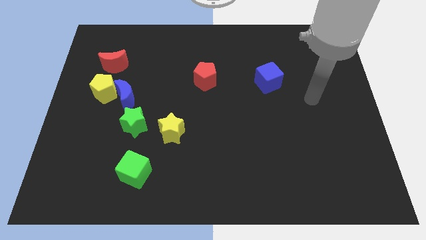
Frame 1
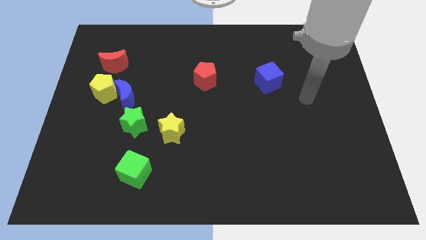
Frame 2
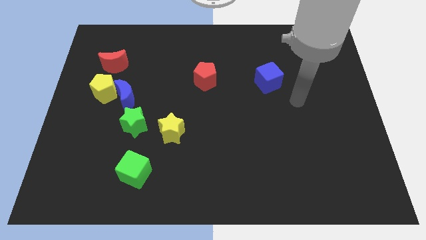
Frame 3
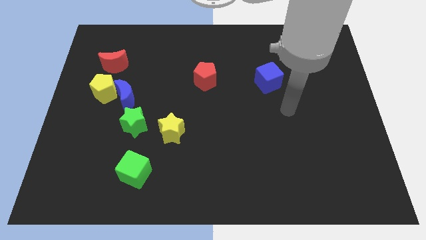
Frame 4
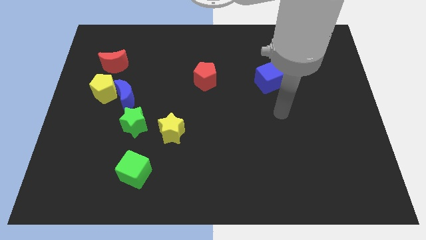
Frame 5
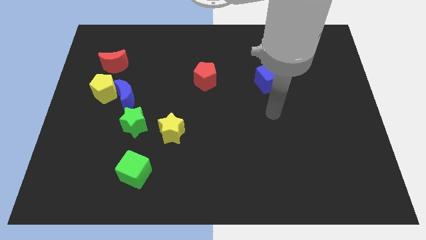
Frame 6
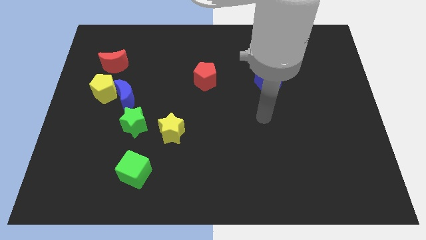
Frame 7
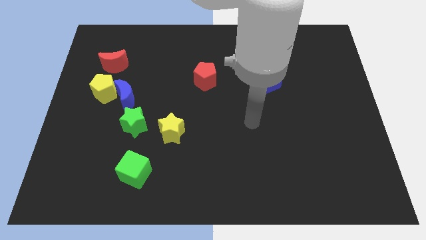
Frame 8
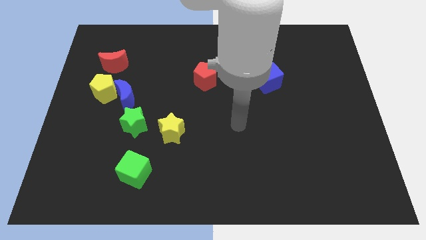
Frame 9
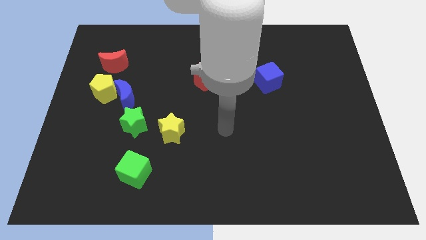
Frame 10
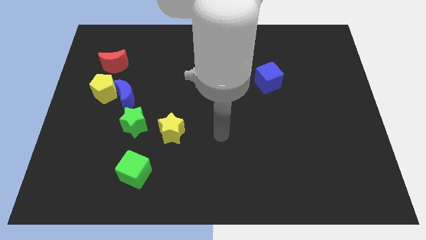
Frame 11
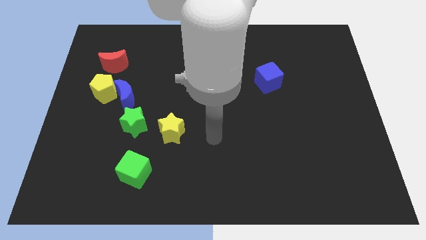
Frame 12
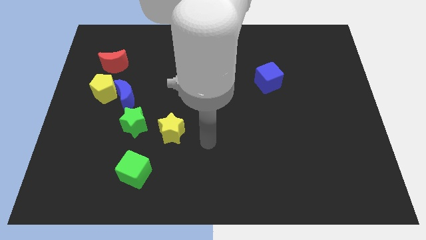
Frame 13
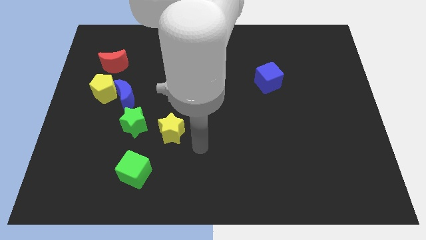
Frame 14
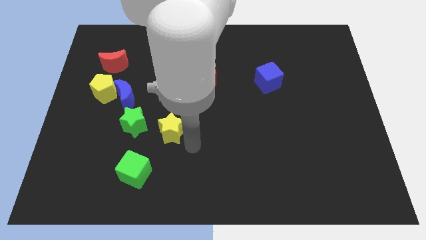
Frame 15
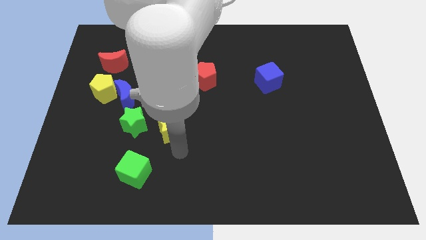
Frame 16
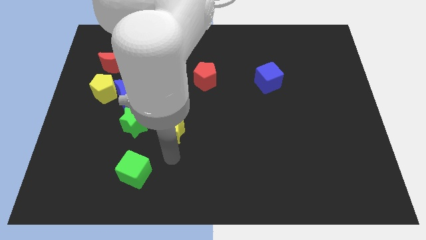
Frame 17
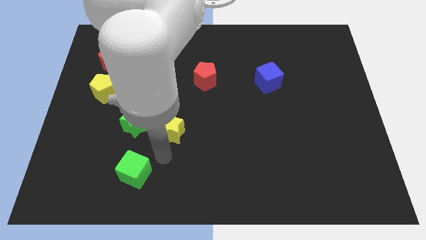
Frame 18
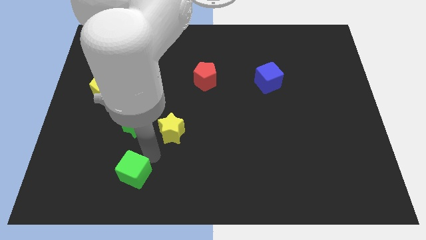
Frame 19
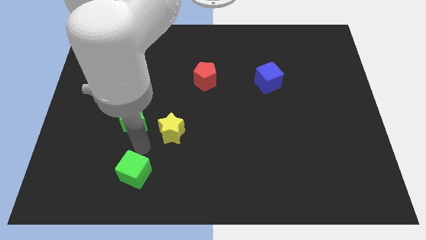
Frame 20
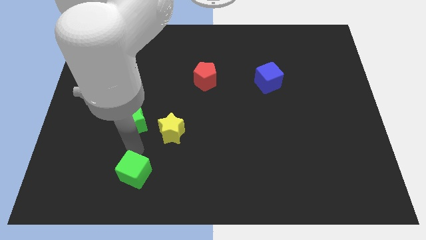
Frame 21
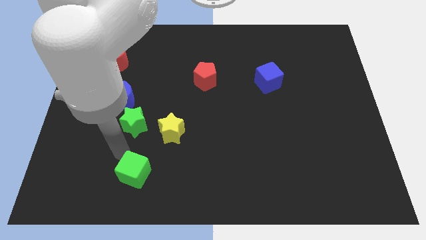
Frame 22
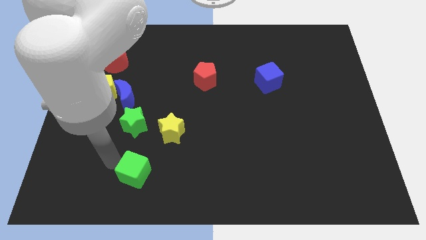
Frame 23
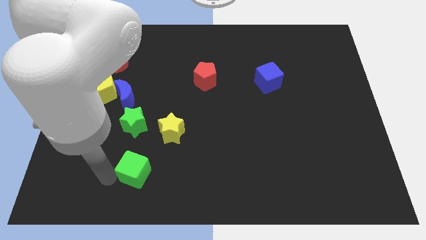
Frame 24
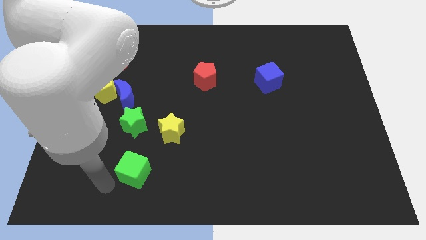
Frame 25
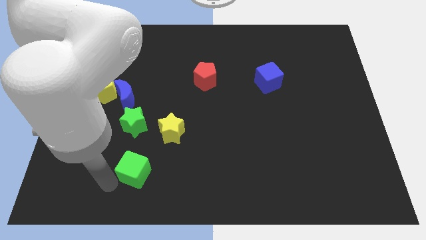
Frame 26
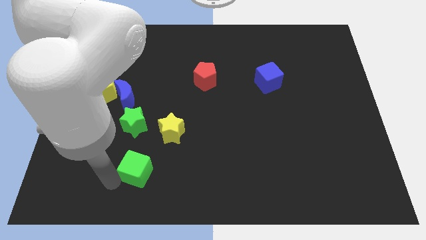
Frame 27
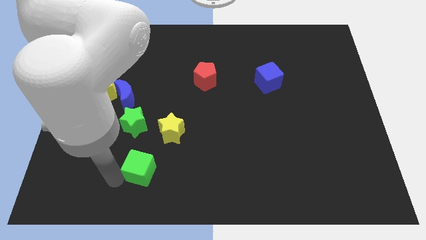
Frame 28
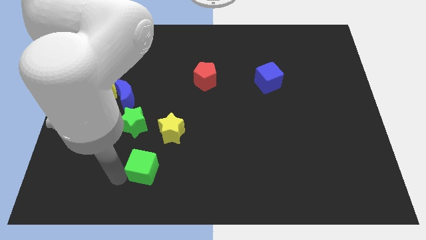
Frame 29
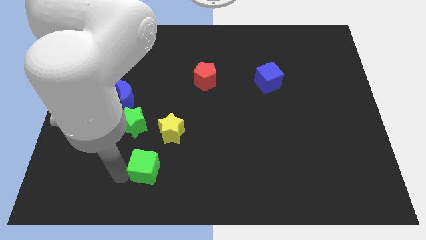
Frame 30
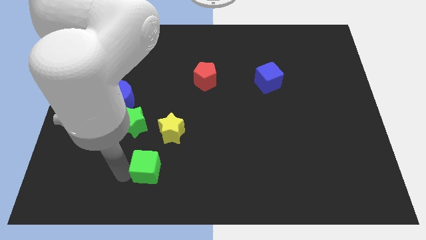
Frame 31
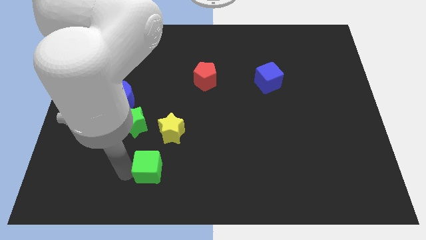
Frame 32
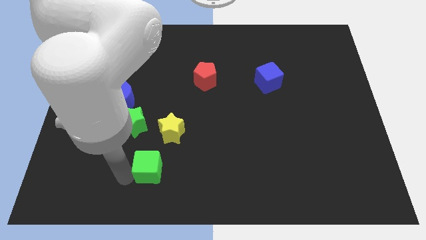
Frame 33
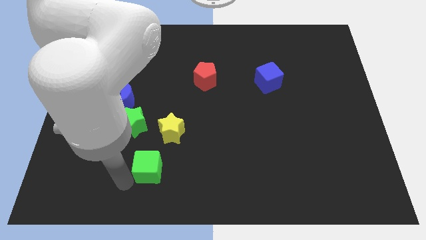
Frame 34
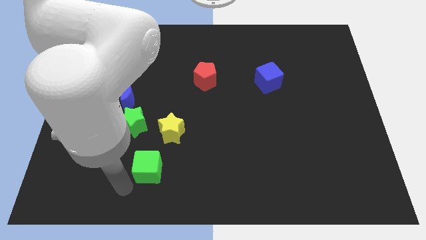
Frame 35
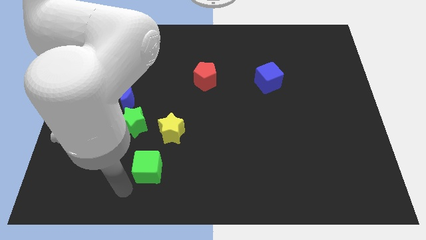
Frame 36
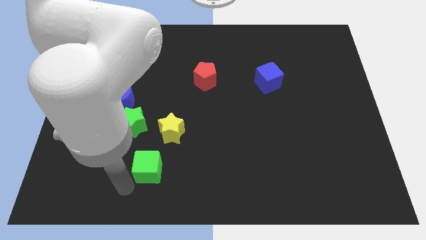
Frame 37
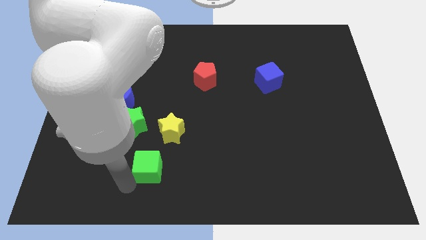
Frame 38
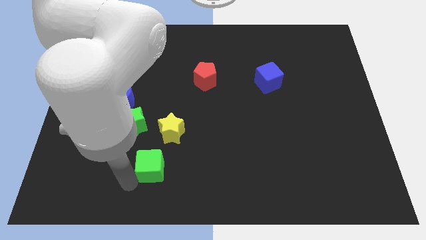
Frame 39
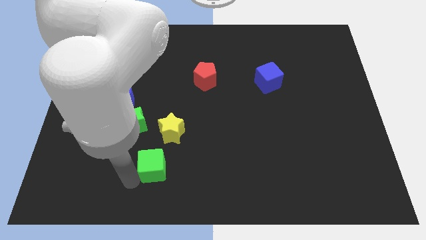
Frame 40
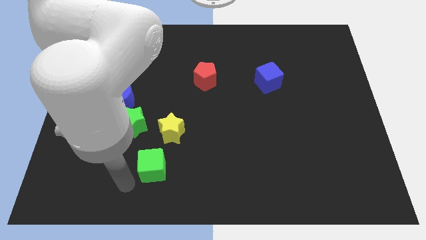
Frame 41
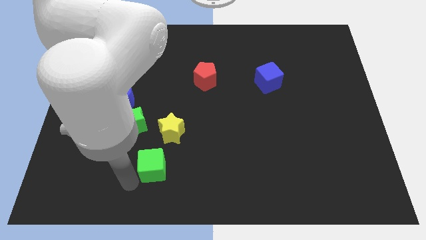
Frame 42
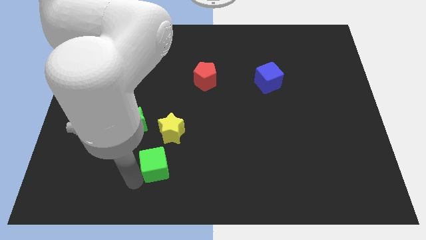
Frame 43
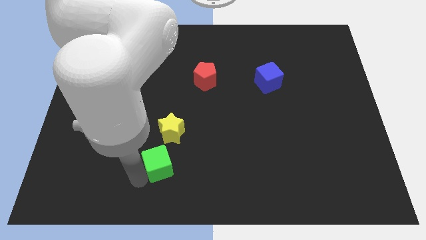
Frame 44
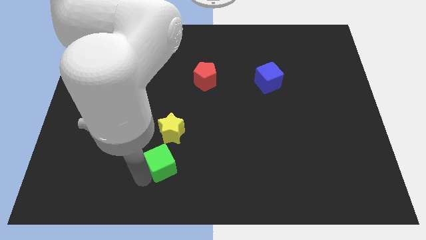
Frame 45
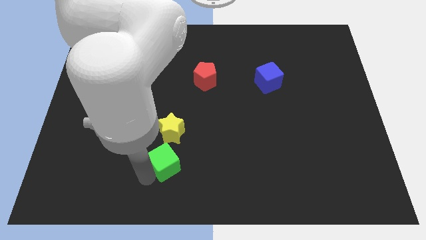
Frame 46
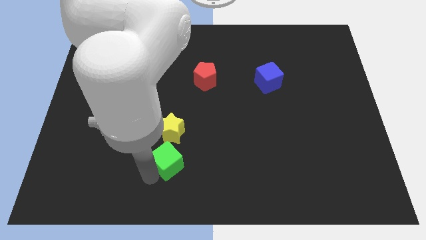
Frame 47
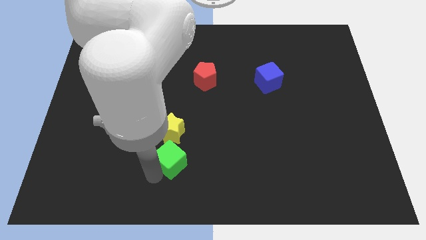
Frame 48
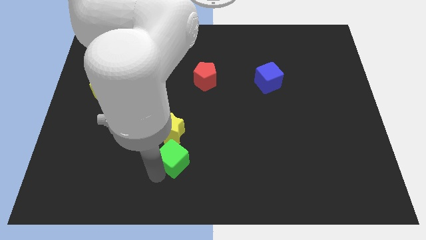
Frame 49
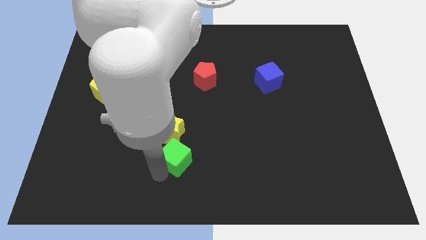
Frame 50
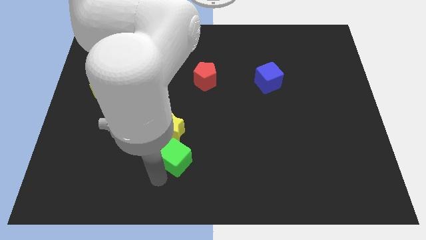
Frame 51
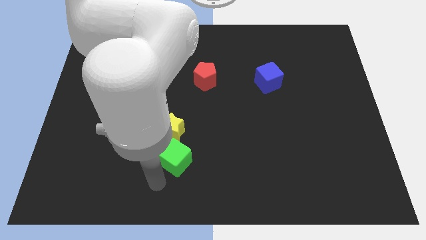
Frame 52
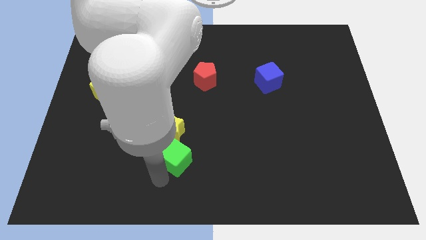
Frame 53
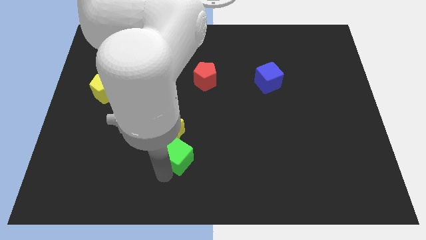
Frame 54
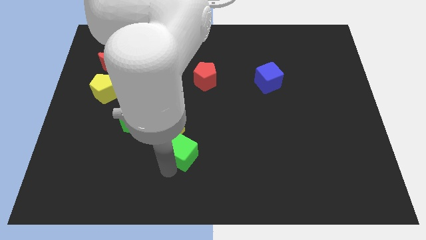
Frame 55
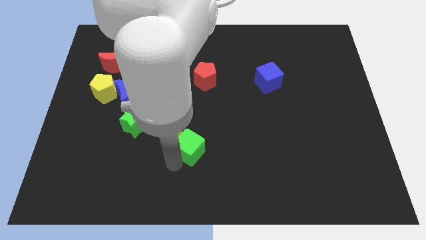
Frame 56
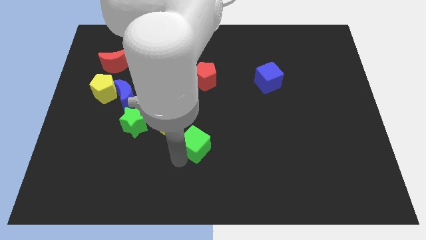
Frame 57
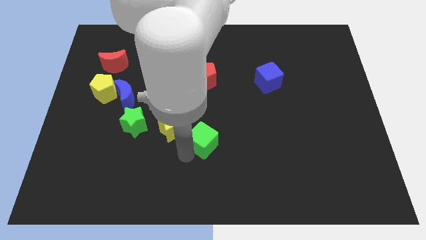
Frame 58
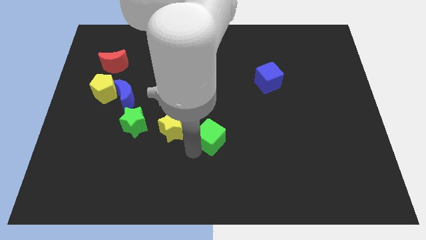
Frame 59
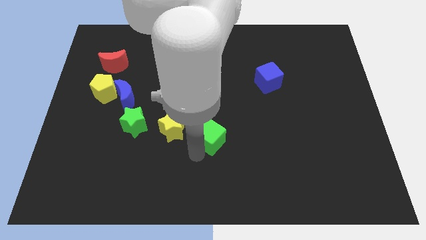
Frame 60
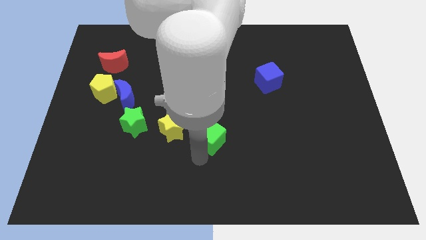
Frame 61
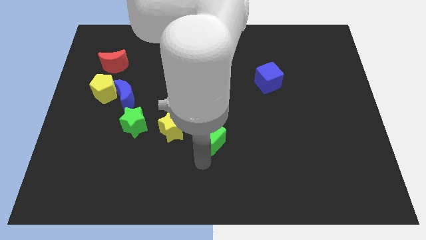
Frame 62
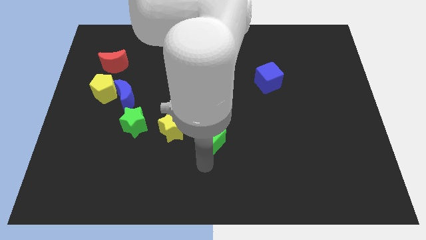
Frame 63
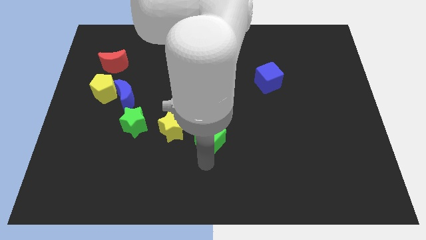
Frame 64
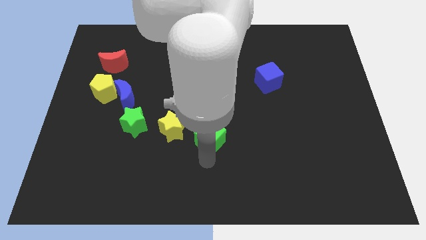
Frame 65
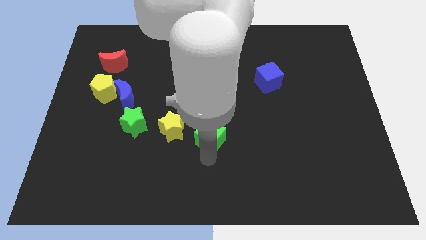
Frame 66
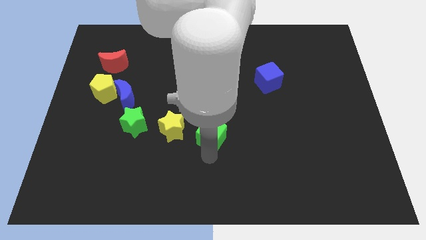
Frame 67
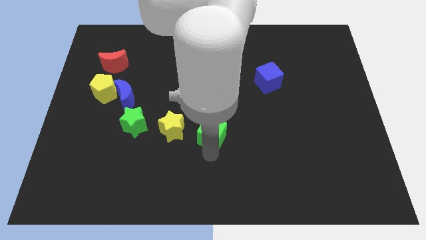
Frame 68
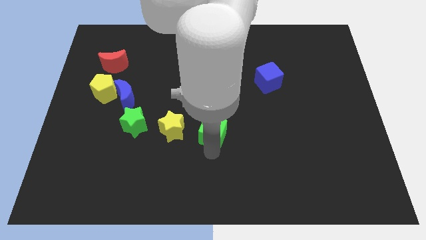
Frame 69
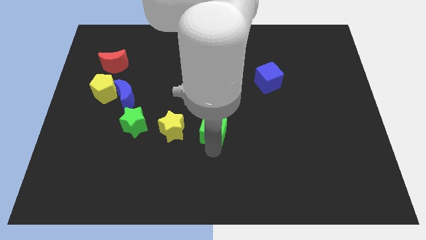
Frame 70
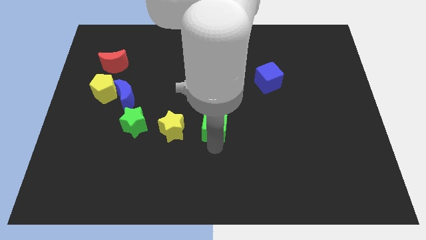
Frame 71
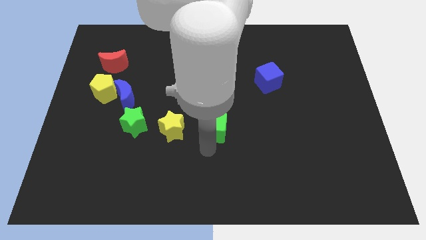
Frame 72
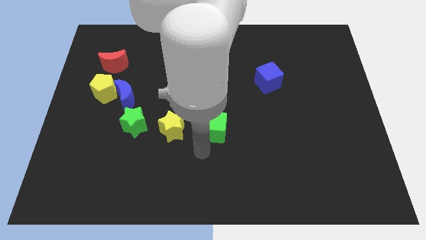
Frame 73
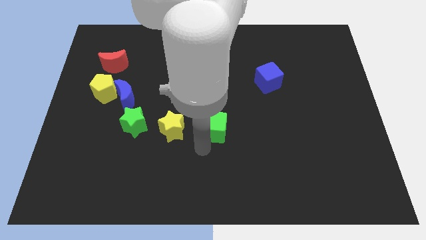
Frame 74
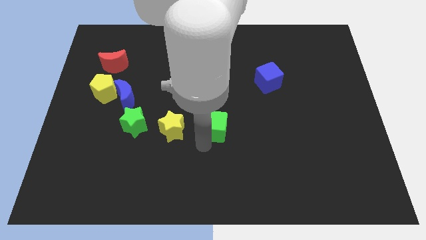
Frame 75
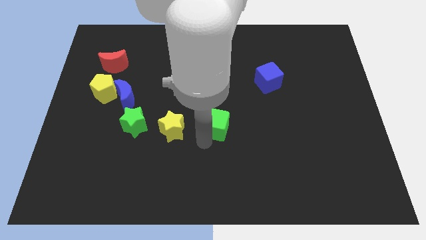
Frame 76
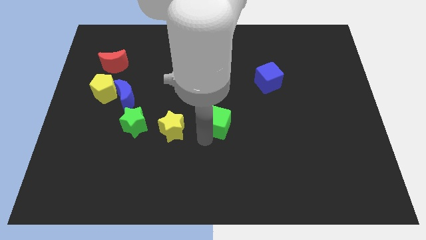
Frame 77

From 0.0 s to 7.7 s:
move the green cube diagonally upwards and right

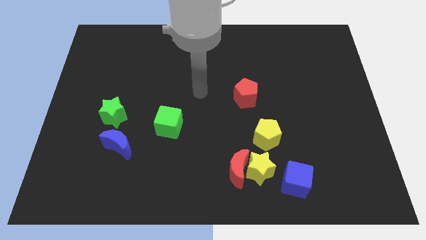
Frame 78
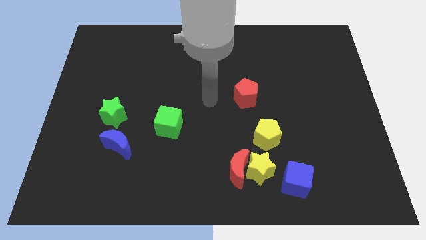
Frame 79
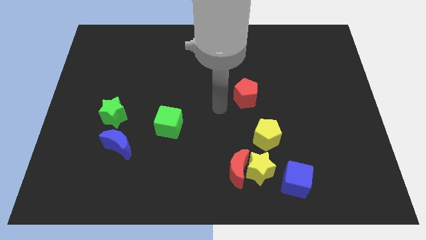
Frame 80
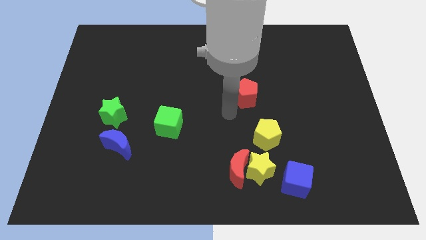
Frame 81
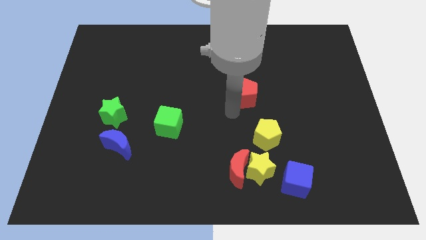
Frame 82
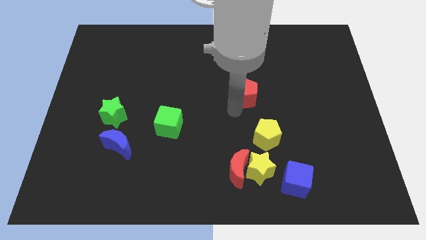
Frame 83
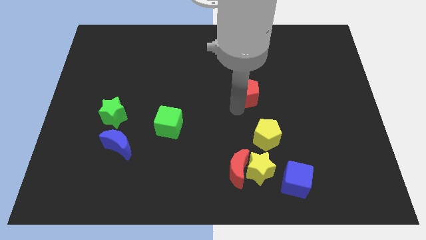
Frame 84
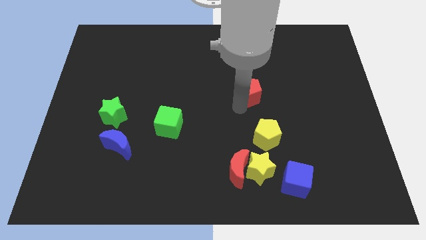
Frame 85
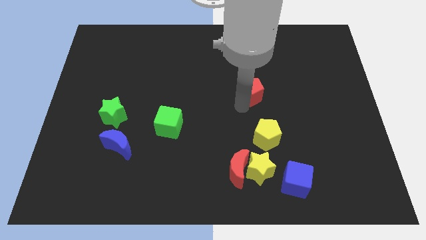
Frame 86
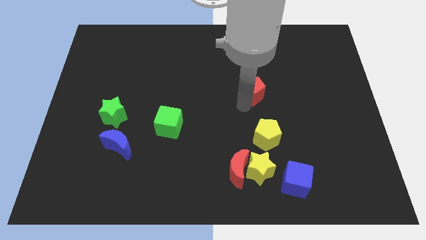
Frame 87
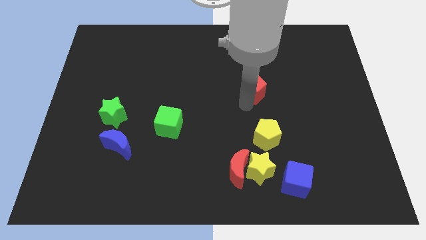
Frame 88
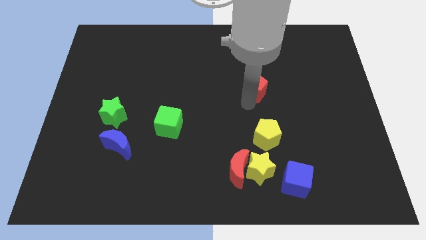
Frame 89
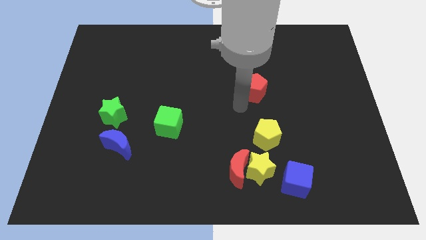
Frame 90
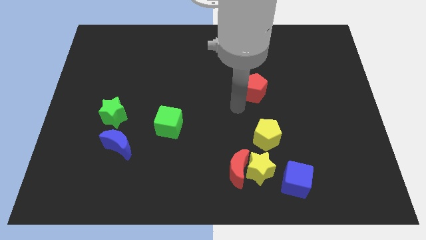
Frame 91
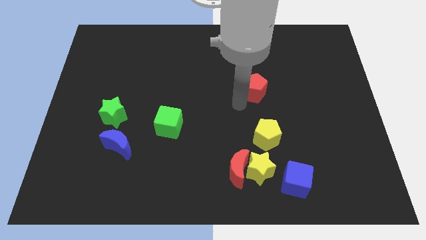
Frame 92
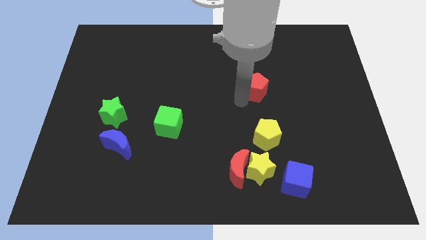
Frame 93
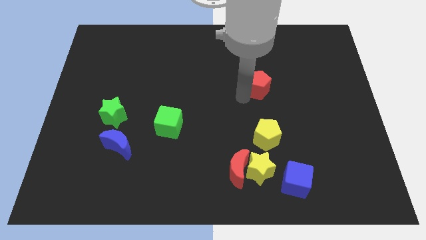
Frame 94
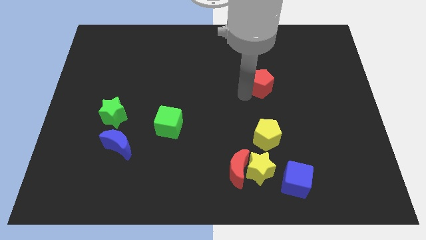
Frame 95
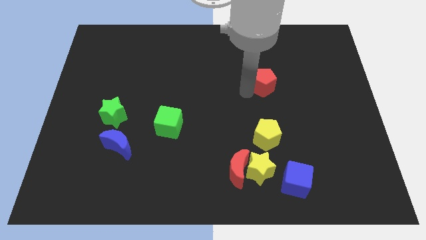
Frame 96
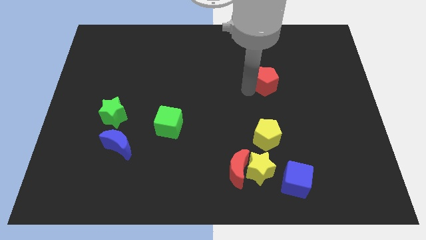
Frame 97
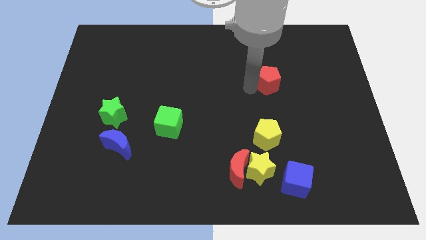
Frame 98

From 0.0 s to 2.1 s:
move the red pentagon slightly diagonally up and to the right
